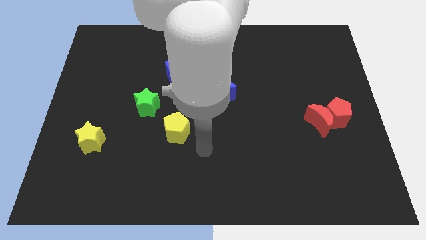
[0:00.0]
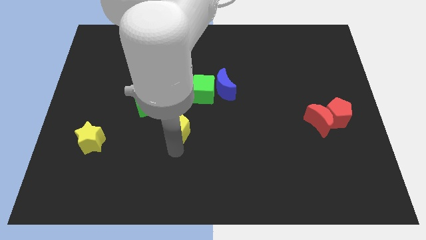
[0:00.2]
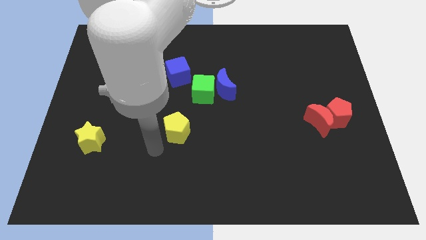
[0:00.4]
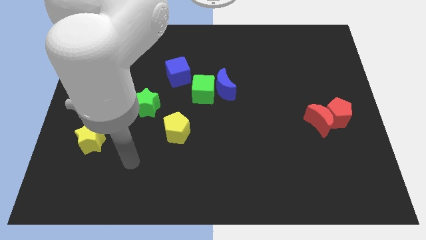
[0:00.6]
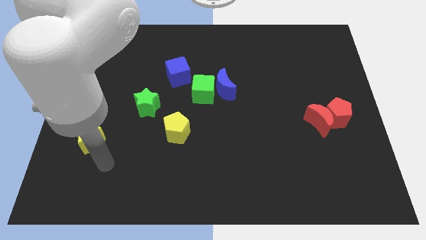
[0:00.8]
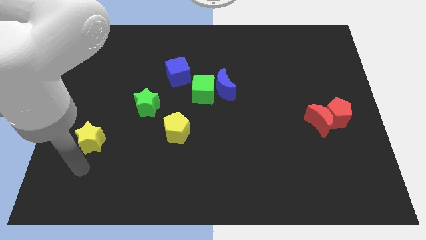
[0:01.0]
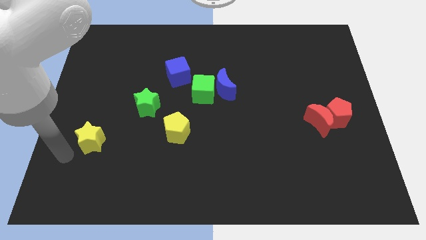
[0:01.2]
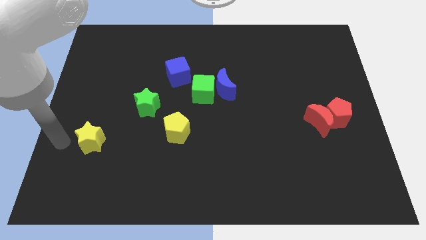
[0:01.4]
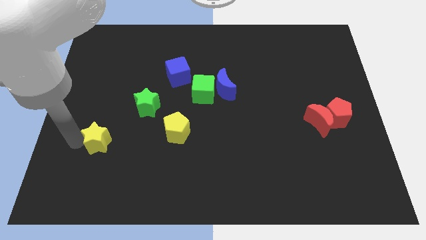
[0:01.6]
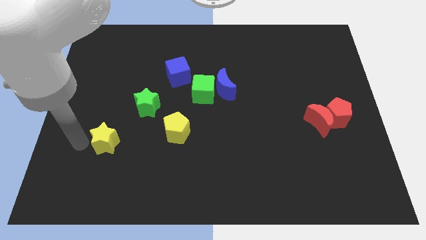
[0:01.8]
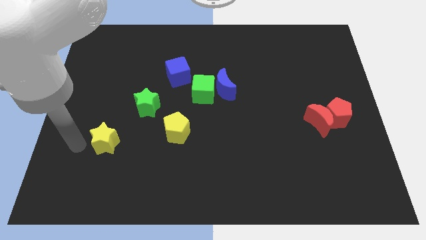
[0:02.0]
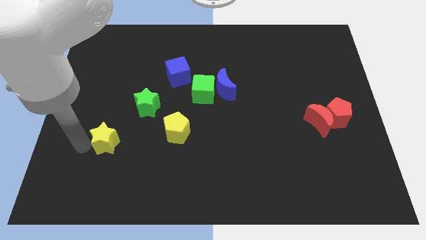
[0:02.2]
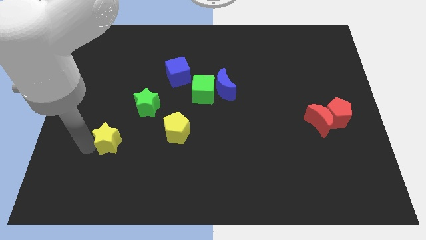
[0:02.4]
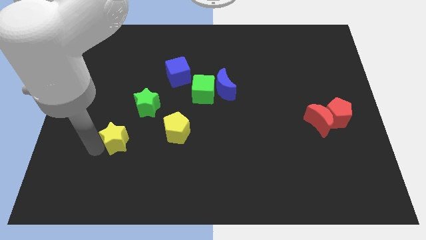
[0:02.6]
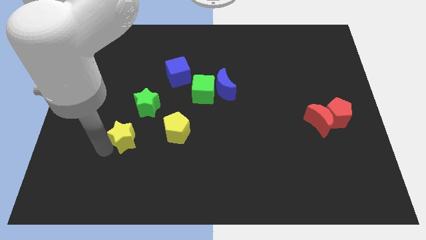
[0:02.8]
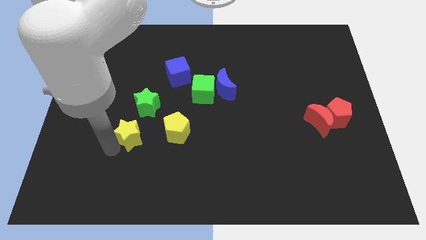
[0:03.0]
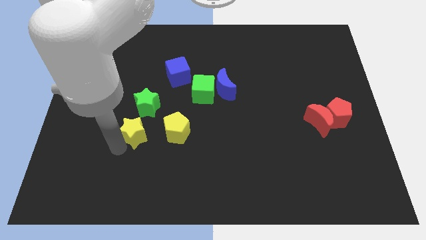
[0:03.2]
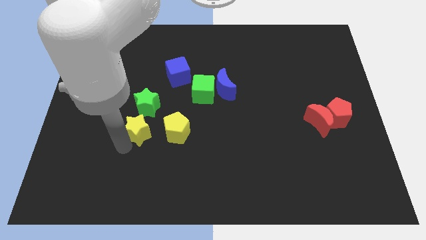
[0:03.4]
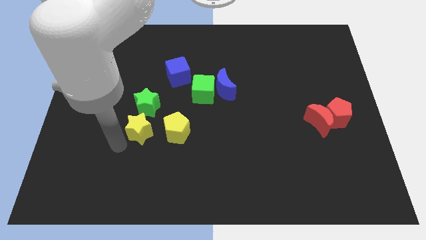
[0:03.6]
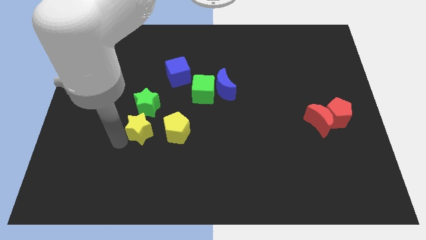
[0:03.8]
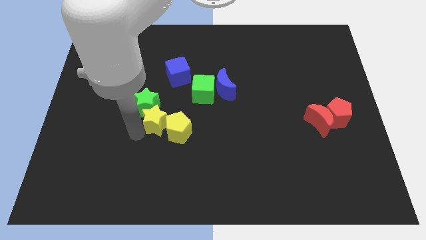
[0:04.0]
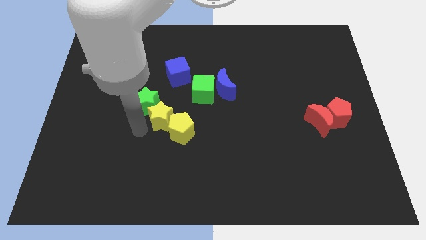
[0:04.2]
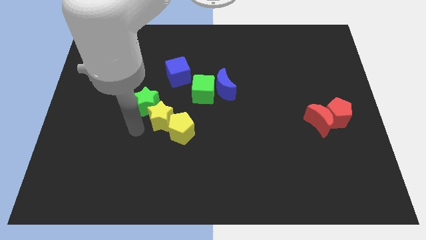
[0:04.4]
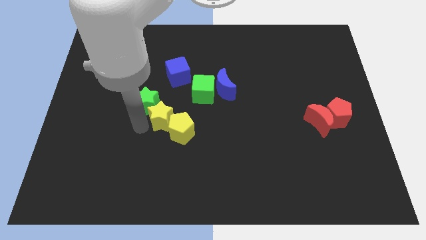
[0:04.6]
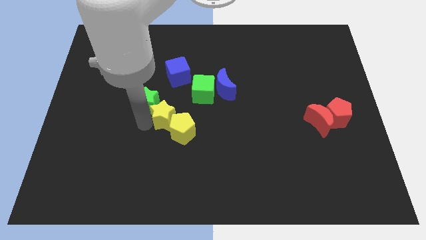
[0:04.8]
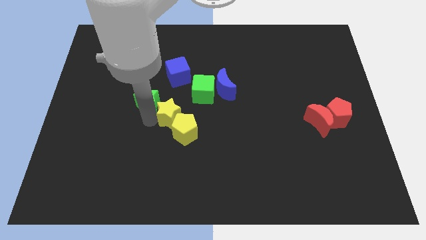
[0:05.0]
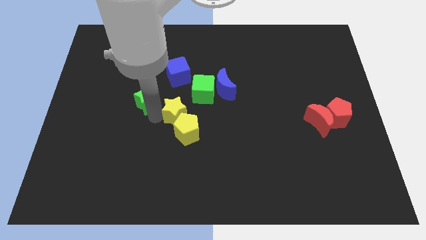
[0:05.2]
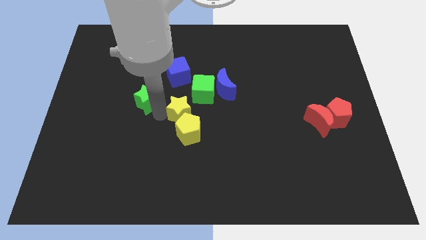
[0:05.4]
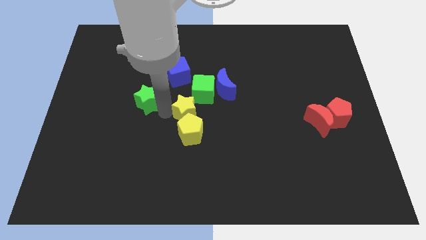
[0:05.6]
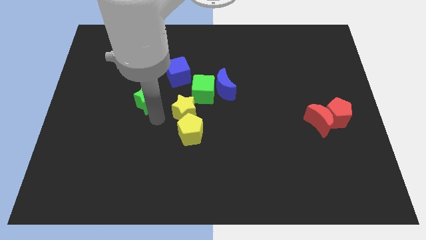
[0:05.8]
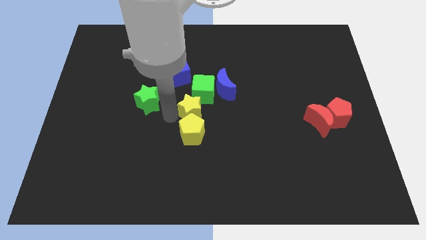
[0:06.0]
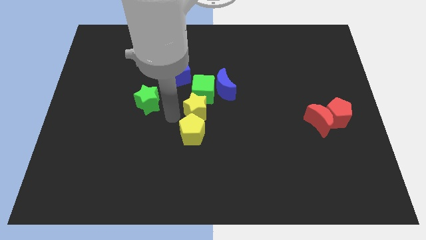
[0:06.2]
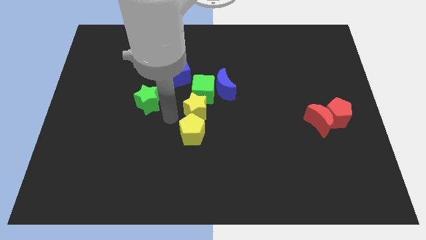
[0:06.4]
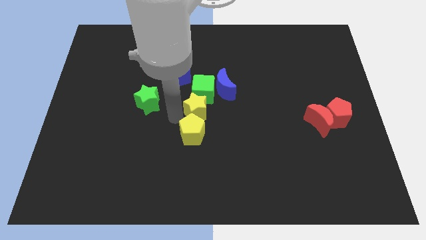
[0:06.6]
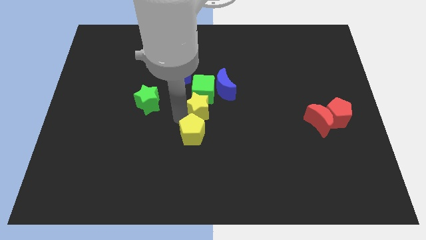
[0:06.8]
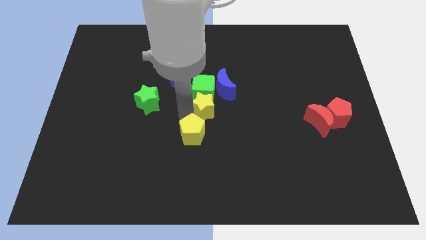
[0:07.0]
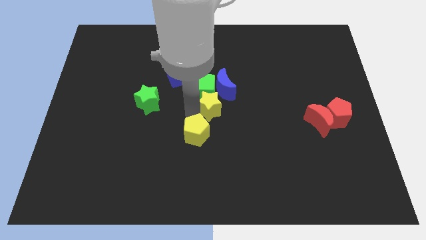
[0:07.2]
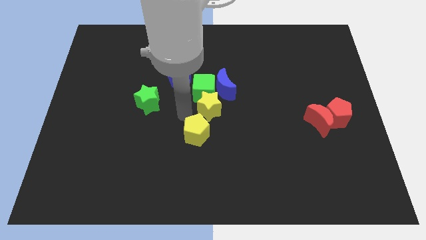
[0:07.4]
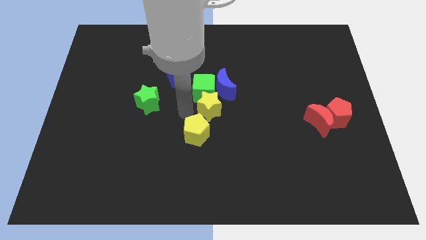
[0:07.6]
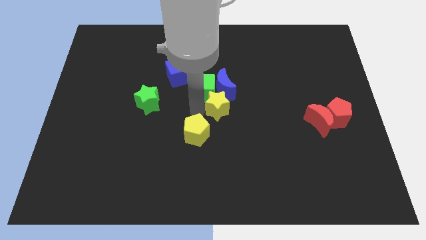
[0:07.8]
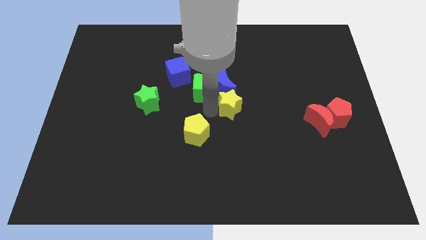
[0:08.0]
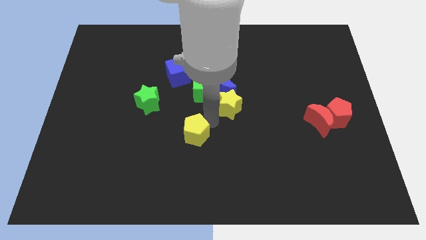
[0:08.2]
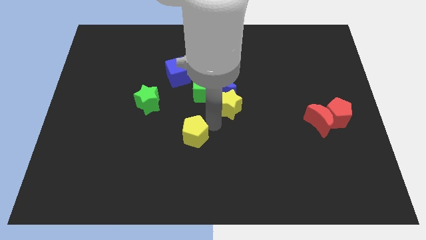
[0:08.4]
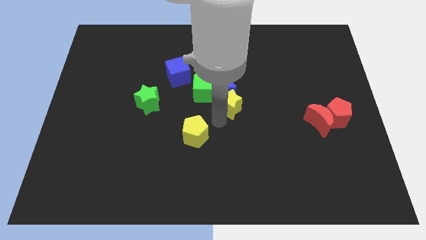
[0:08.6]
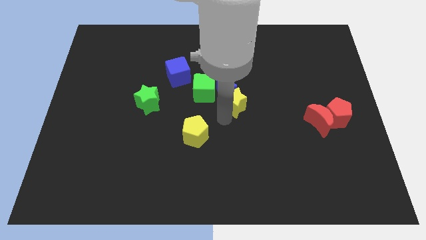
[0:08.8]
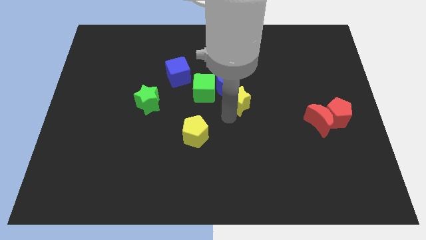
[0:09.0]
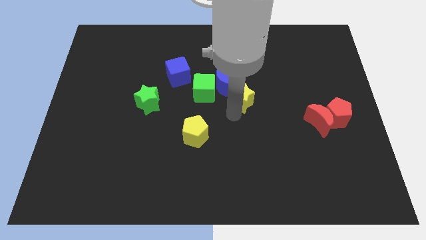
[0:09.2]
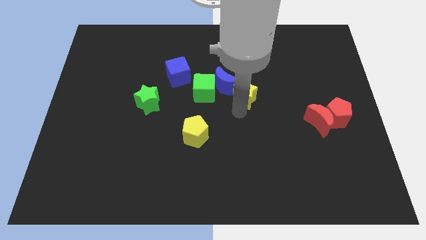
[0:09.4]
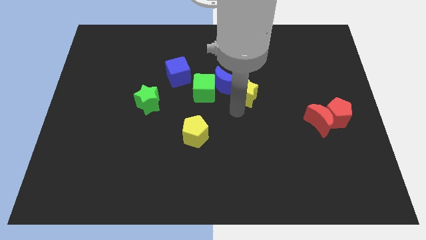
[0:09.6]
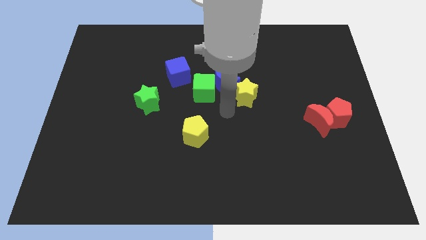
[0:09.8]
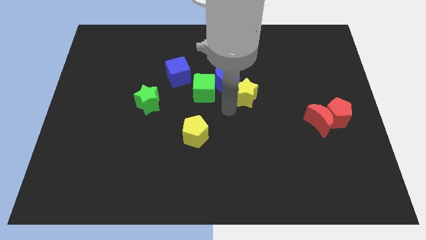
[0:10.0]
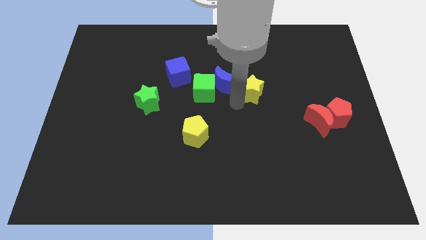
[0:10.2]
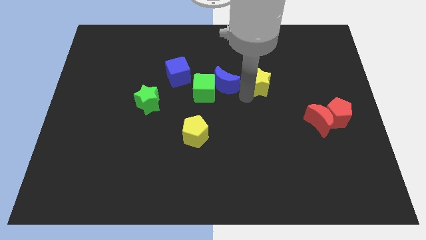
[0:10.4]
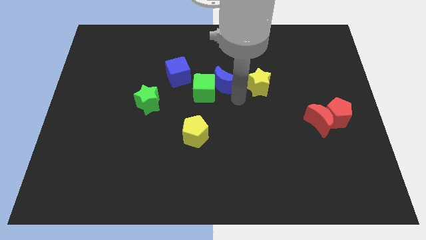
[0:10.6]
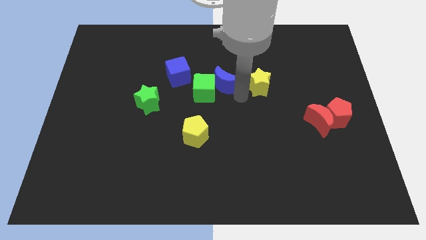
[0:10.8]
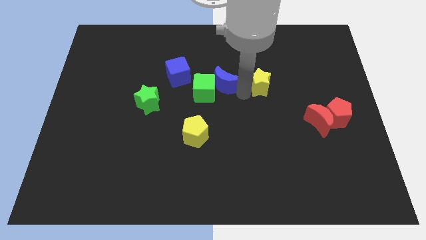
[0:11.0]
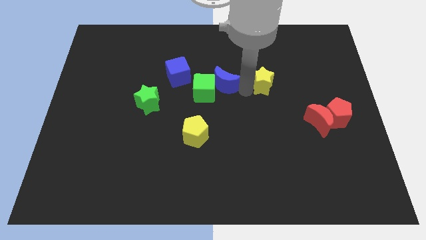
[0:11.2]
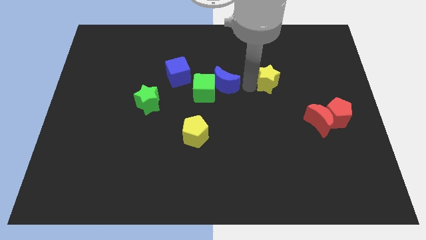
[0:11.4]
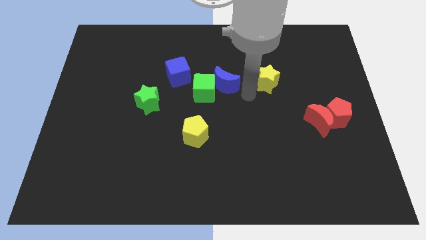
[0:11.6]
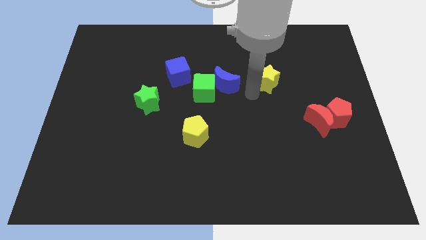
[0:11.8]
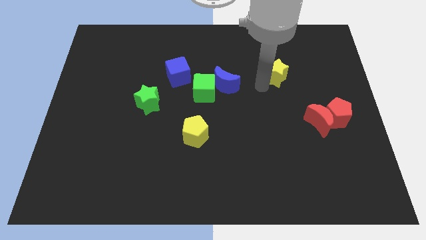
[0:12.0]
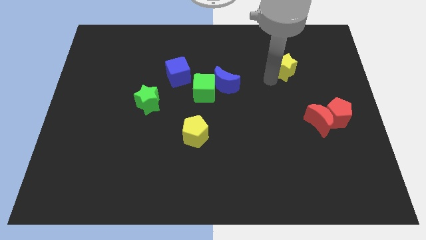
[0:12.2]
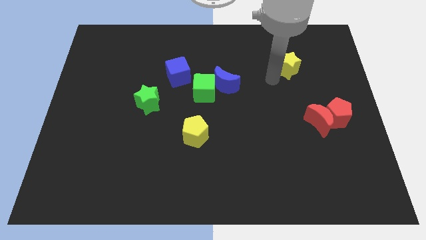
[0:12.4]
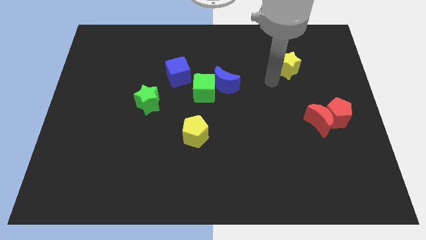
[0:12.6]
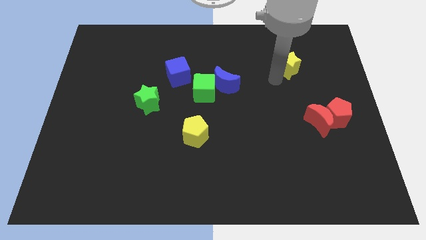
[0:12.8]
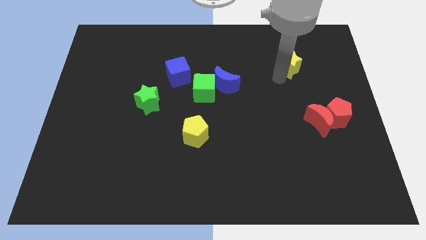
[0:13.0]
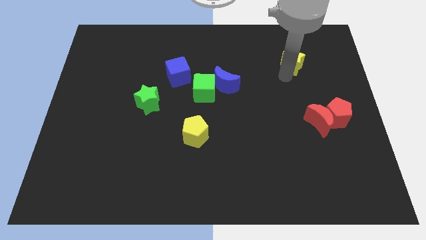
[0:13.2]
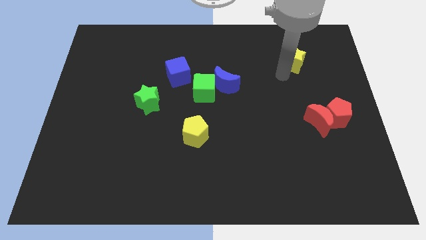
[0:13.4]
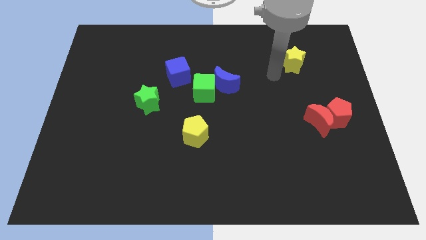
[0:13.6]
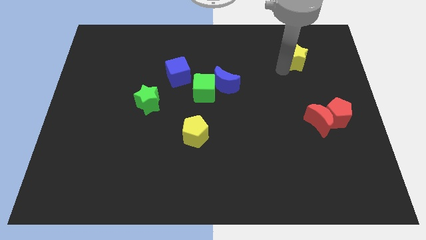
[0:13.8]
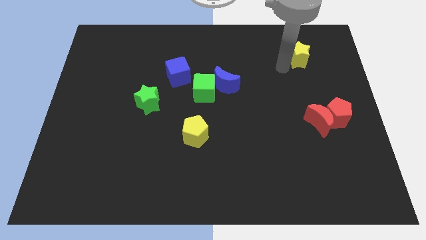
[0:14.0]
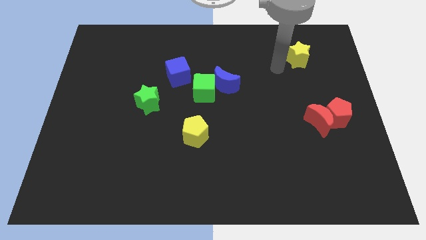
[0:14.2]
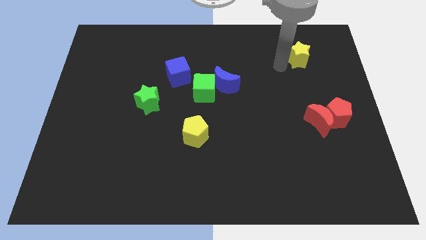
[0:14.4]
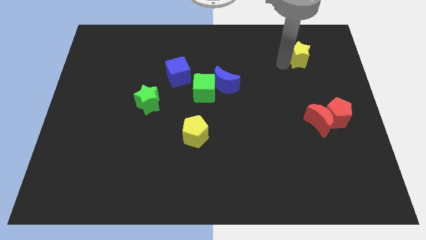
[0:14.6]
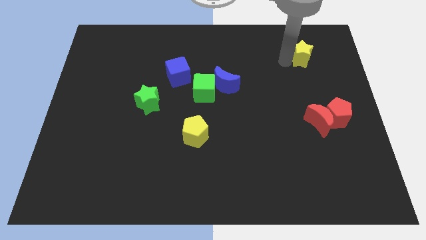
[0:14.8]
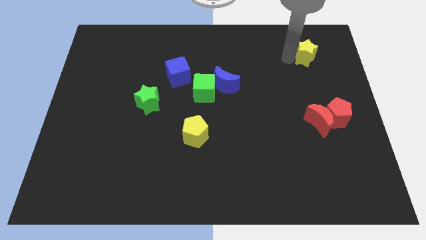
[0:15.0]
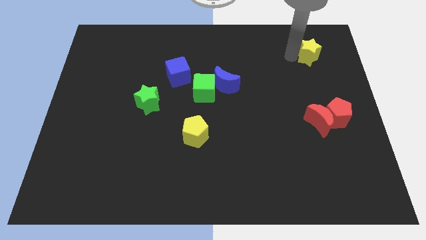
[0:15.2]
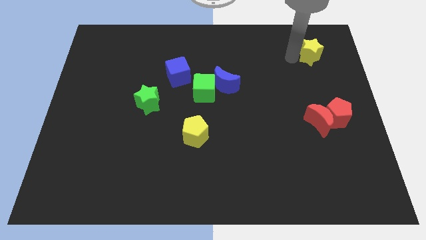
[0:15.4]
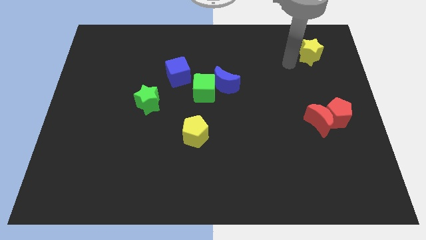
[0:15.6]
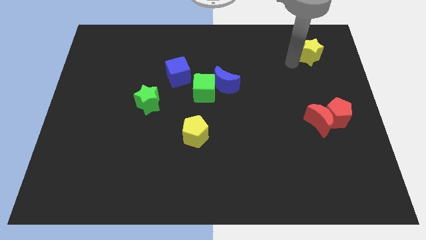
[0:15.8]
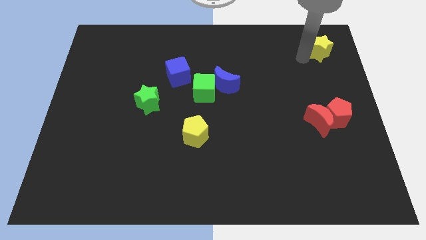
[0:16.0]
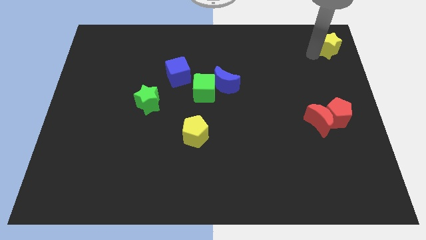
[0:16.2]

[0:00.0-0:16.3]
move the yellow star to the upper right corner
